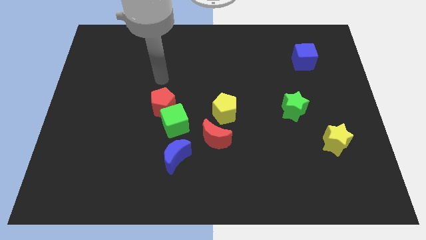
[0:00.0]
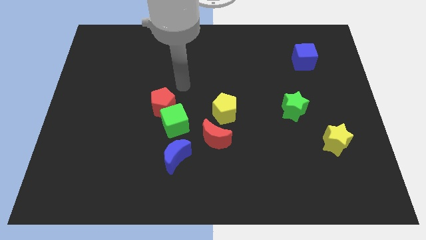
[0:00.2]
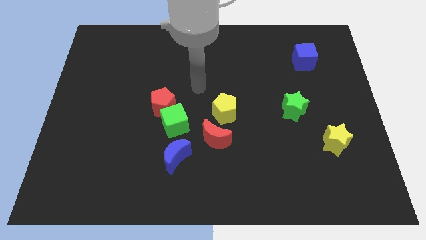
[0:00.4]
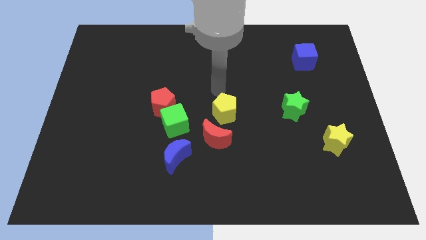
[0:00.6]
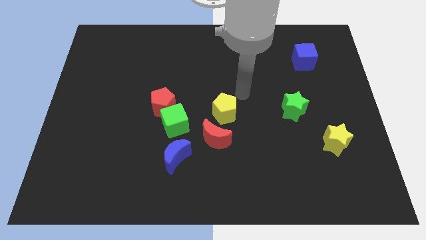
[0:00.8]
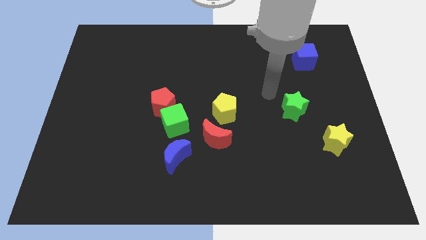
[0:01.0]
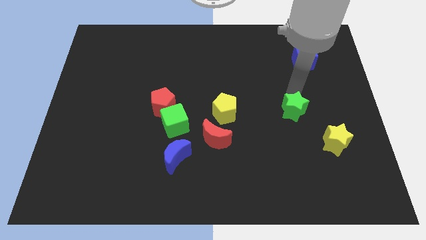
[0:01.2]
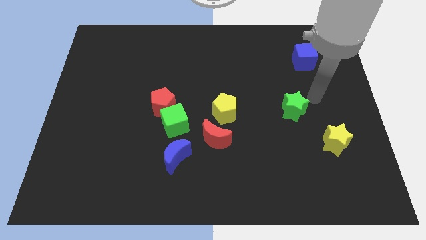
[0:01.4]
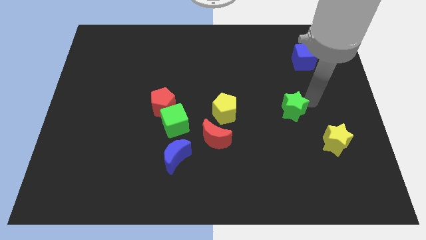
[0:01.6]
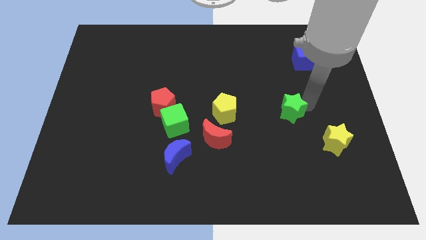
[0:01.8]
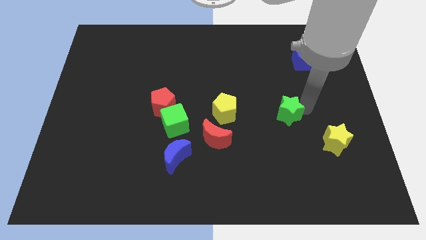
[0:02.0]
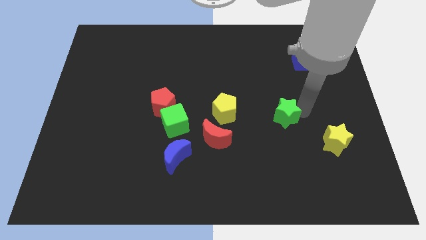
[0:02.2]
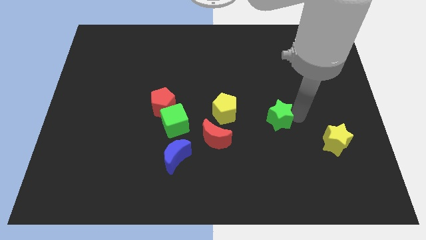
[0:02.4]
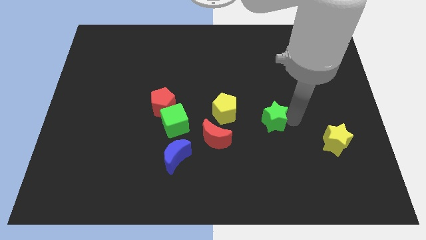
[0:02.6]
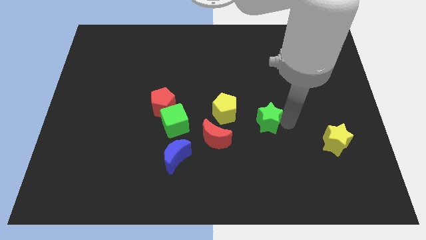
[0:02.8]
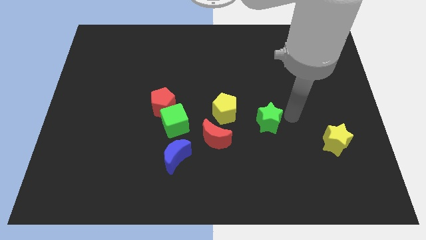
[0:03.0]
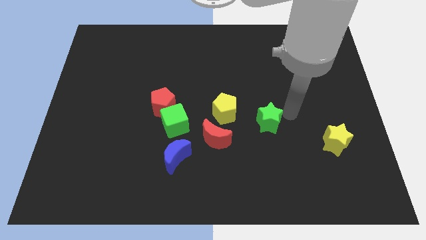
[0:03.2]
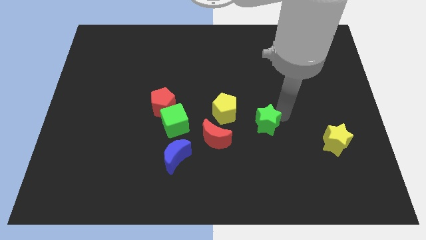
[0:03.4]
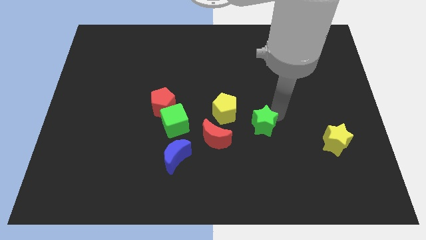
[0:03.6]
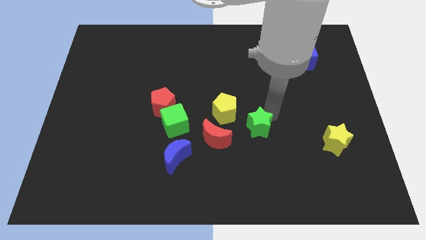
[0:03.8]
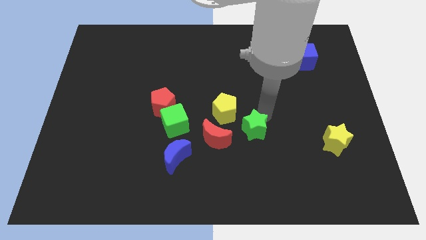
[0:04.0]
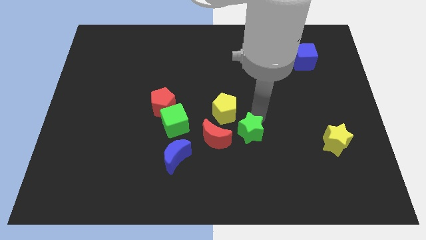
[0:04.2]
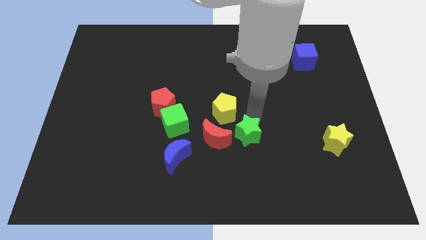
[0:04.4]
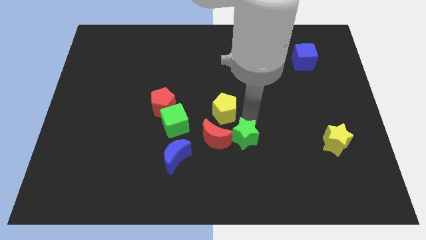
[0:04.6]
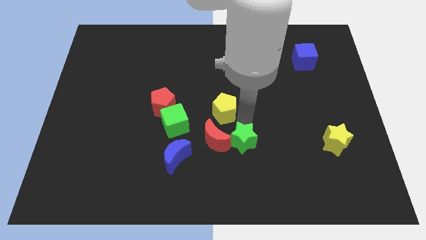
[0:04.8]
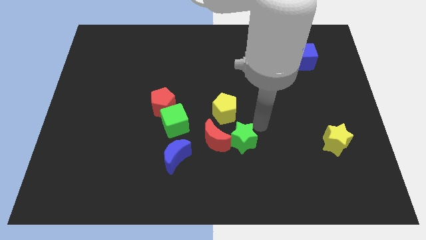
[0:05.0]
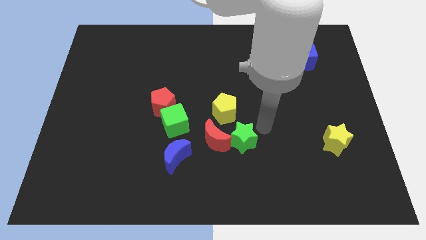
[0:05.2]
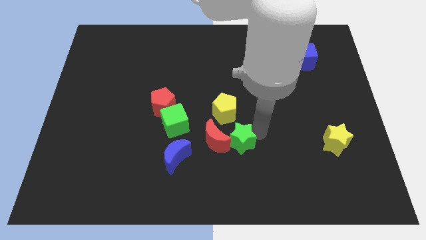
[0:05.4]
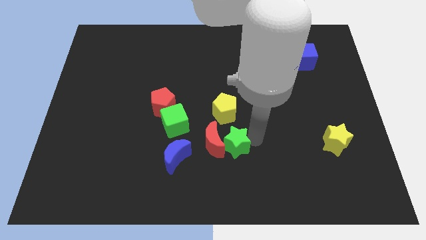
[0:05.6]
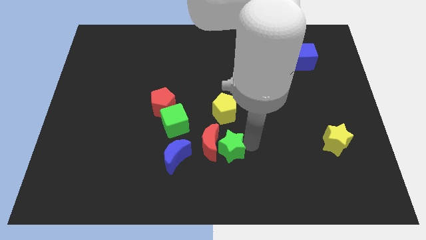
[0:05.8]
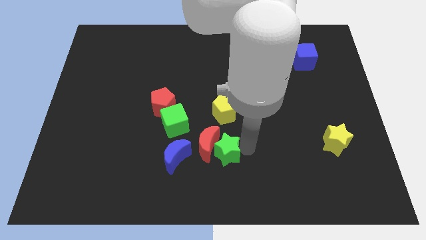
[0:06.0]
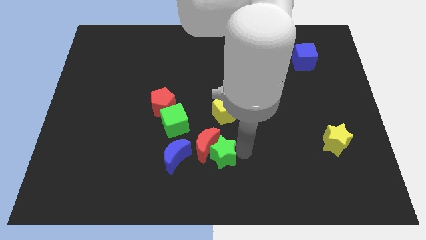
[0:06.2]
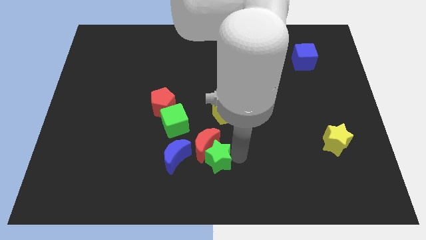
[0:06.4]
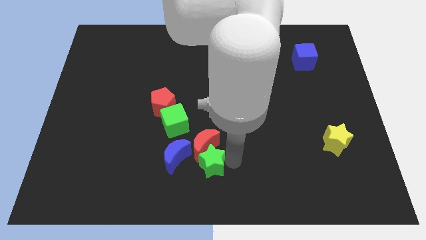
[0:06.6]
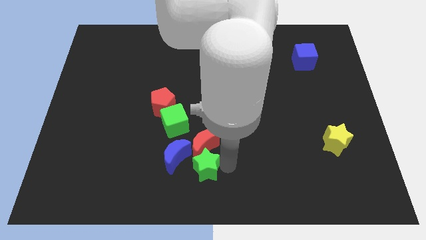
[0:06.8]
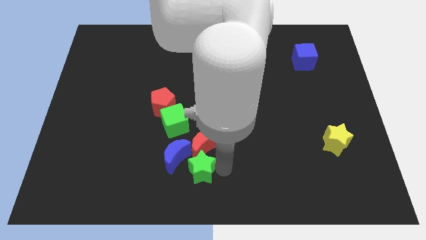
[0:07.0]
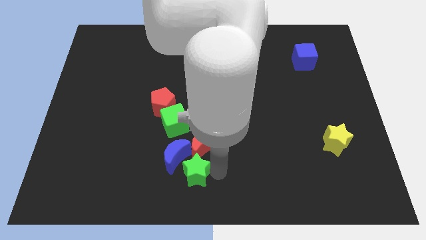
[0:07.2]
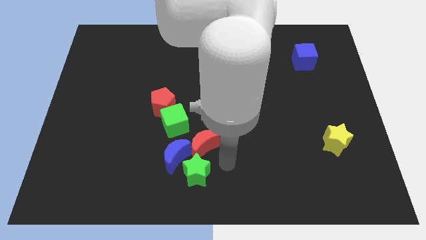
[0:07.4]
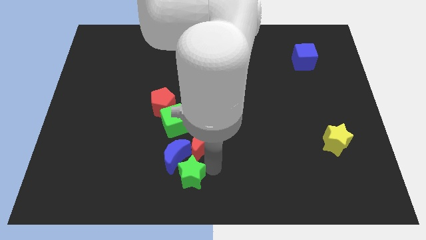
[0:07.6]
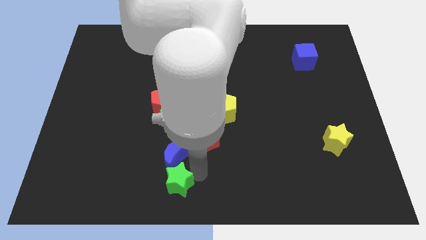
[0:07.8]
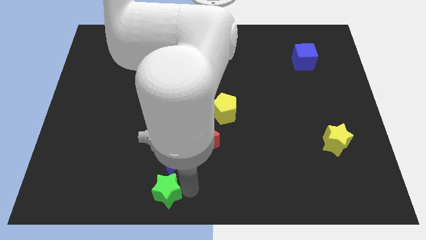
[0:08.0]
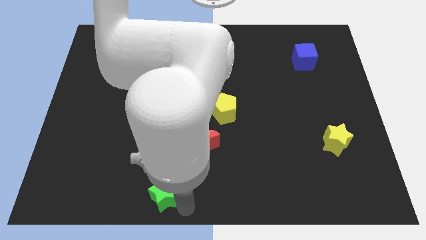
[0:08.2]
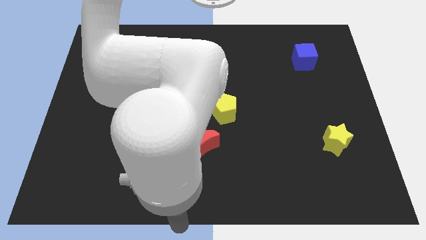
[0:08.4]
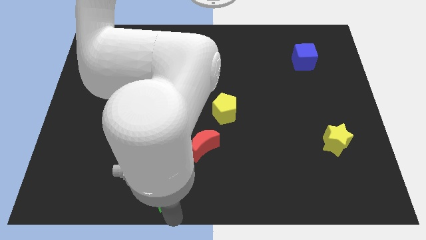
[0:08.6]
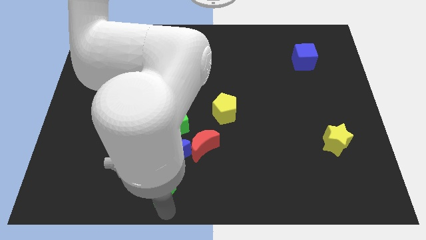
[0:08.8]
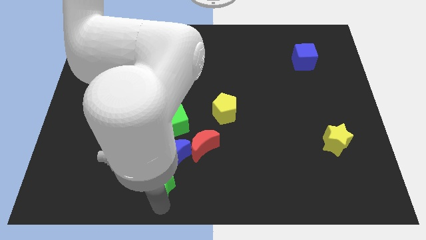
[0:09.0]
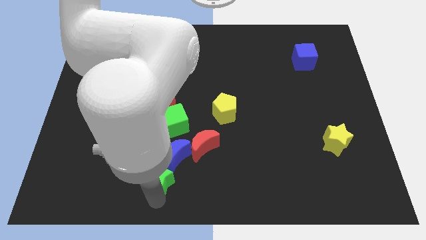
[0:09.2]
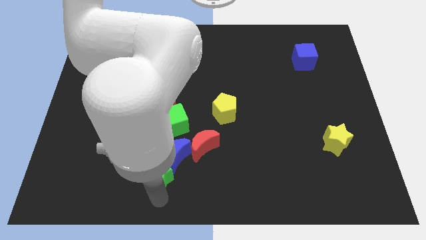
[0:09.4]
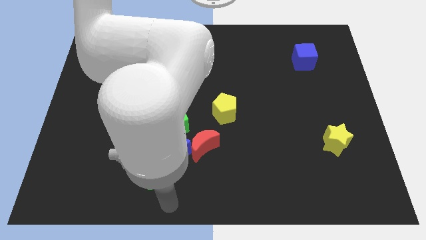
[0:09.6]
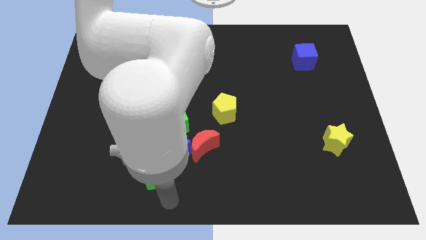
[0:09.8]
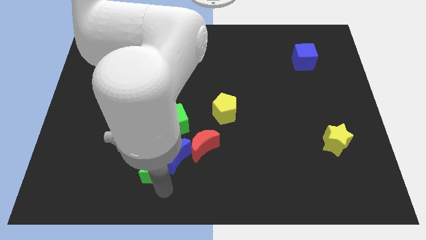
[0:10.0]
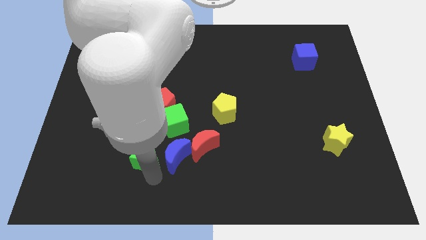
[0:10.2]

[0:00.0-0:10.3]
put the green star to the left of the red moon

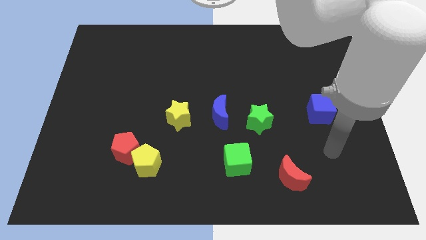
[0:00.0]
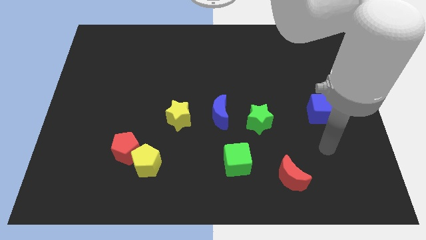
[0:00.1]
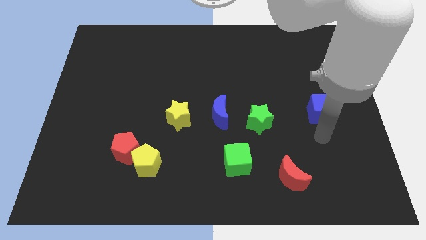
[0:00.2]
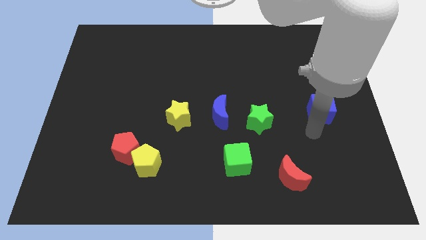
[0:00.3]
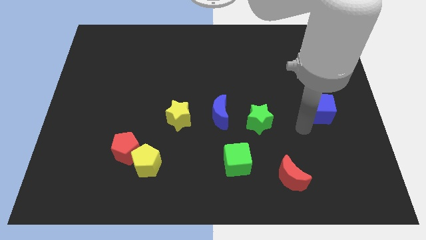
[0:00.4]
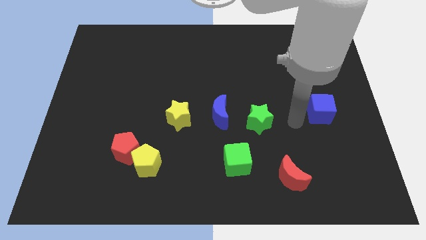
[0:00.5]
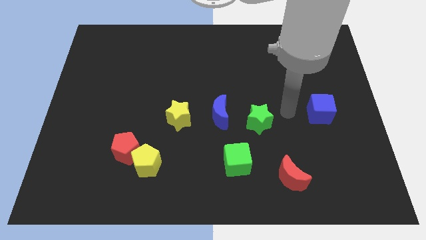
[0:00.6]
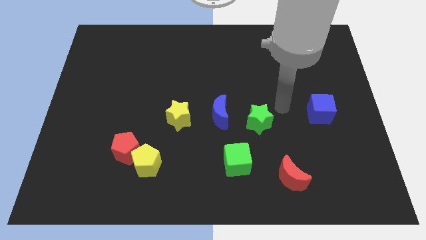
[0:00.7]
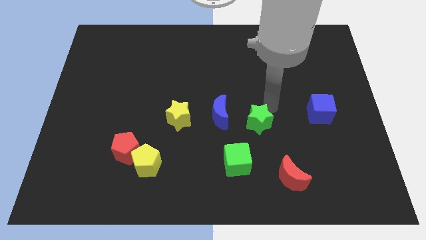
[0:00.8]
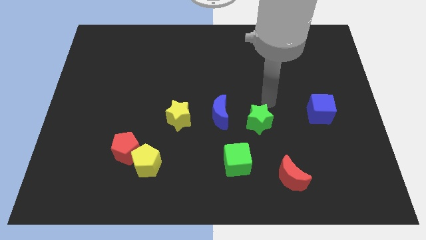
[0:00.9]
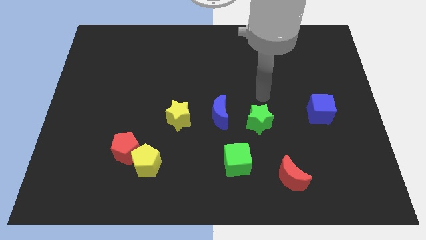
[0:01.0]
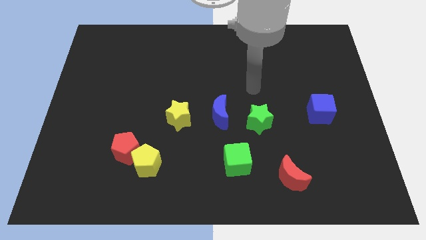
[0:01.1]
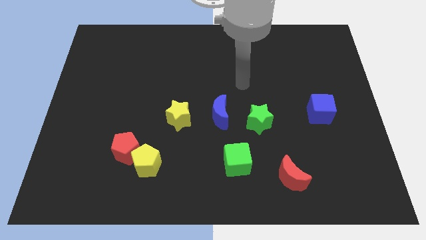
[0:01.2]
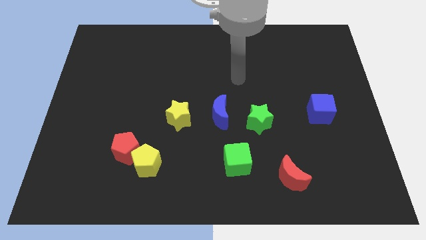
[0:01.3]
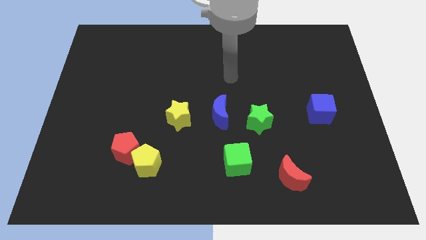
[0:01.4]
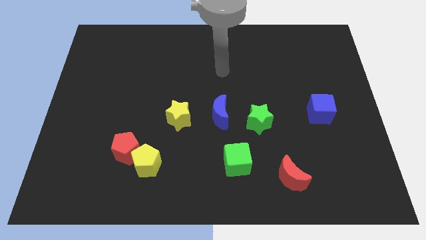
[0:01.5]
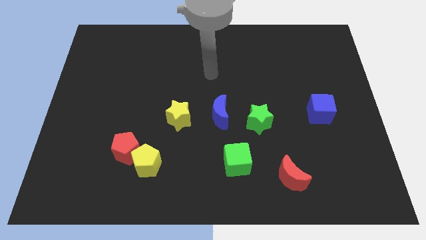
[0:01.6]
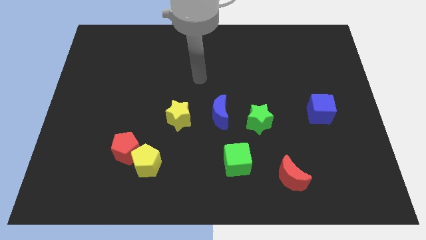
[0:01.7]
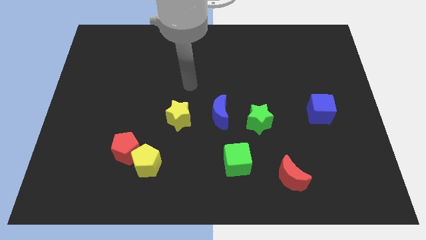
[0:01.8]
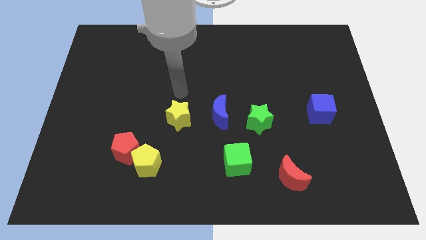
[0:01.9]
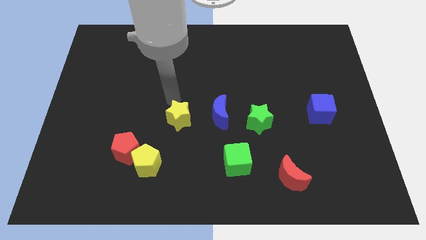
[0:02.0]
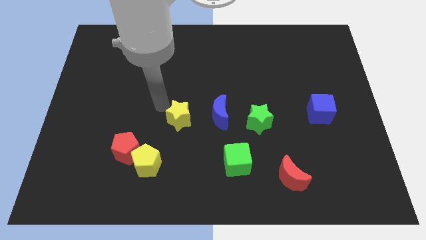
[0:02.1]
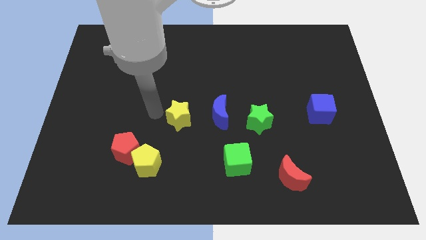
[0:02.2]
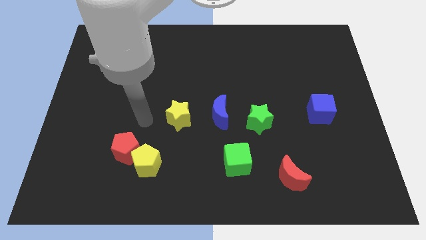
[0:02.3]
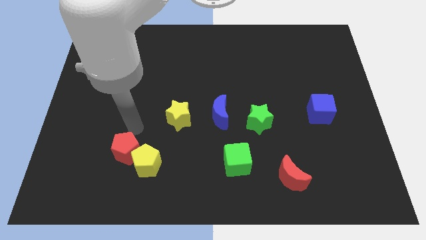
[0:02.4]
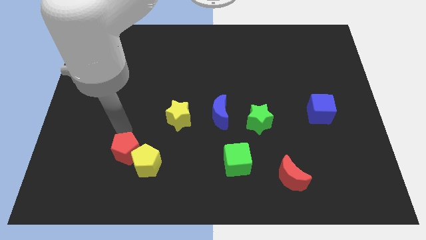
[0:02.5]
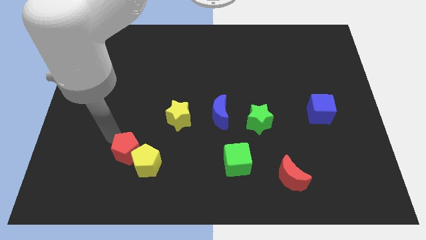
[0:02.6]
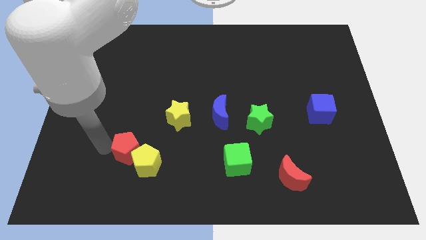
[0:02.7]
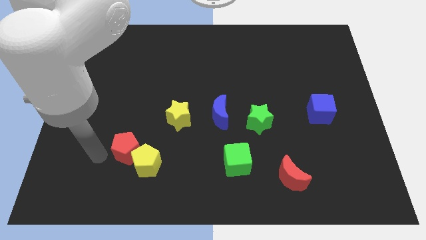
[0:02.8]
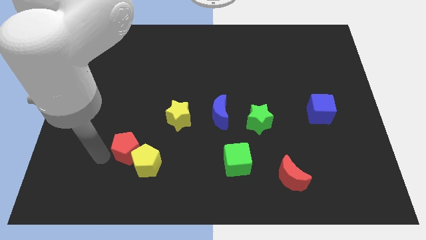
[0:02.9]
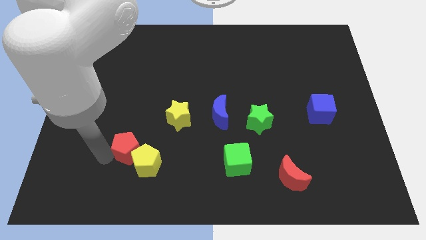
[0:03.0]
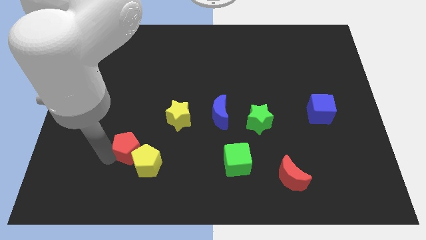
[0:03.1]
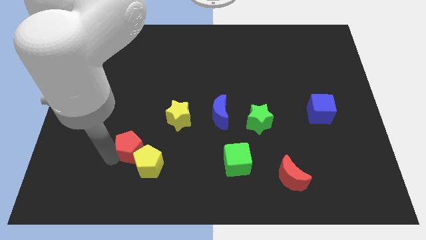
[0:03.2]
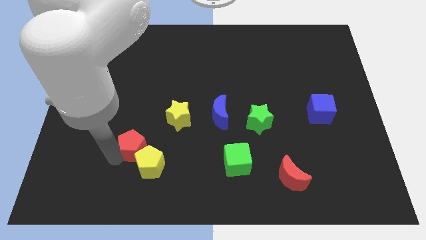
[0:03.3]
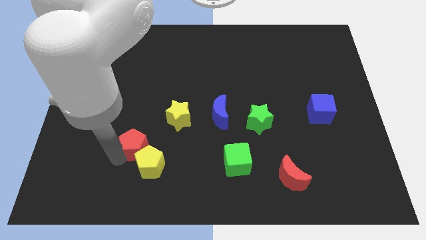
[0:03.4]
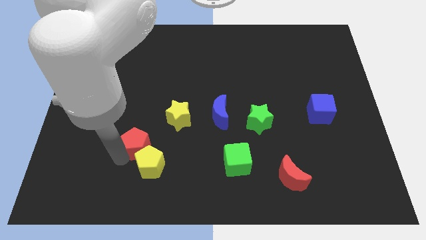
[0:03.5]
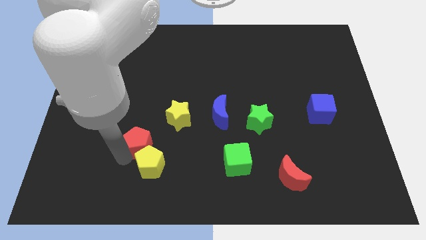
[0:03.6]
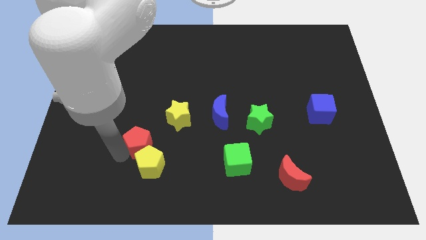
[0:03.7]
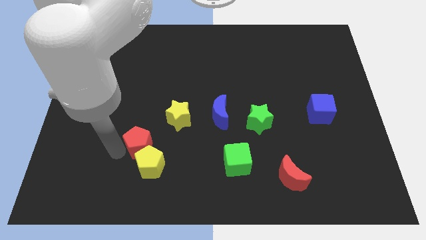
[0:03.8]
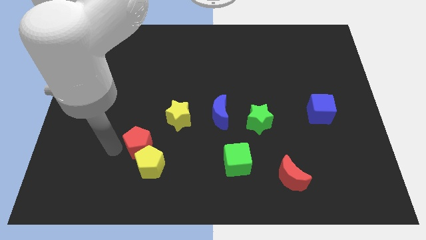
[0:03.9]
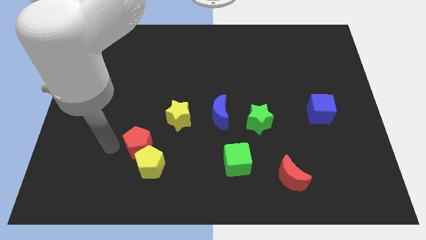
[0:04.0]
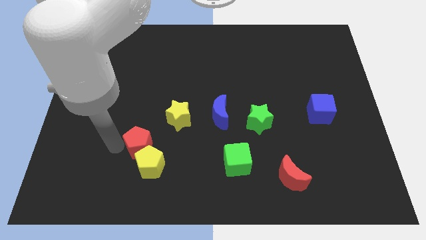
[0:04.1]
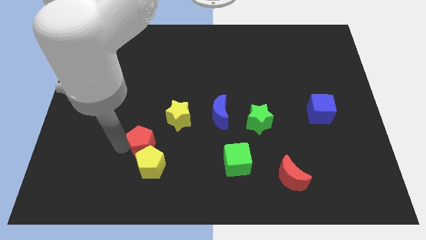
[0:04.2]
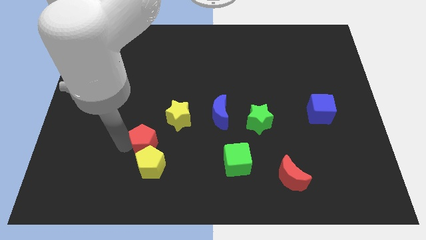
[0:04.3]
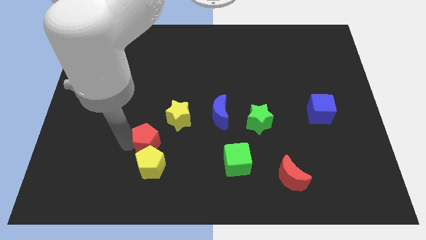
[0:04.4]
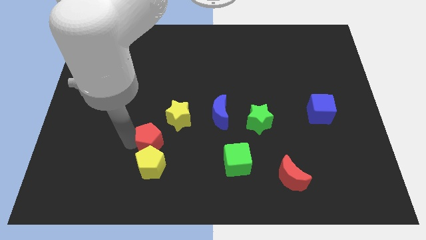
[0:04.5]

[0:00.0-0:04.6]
slide the red pentagon to the top right side of the yellow pentagon
